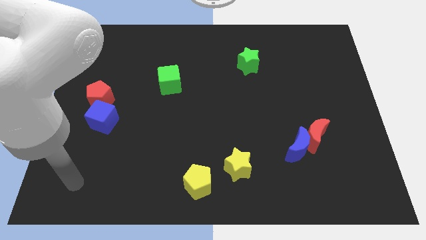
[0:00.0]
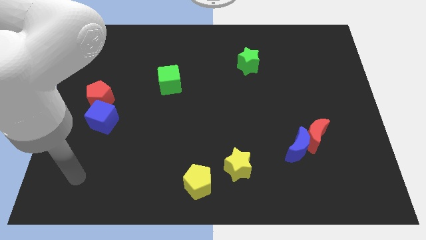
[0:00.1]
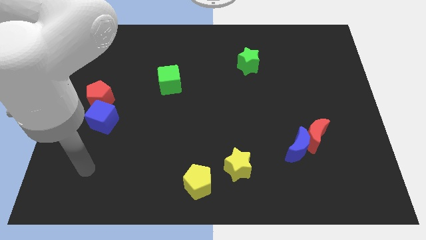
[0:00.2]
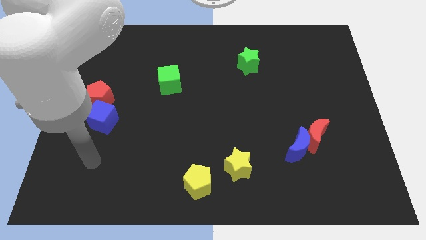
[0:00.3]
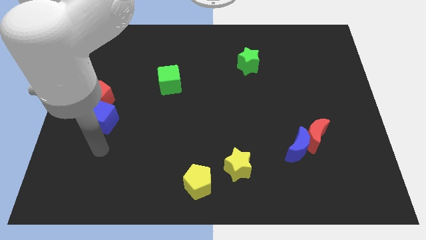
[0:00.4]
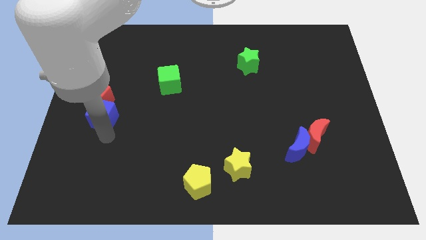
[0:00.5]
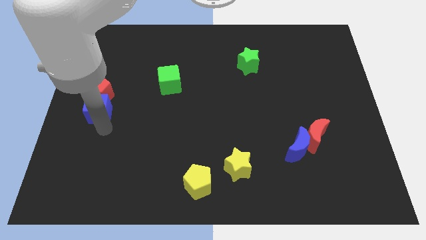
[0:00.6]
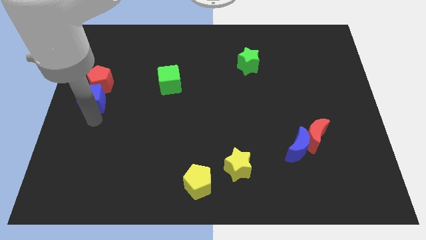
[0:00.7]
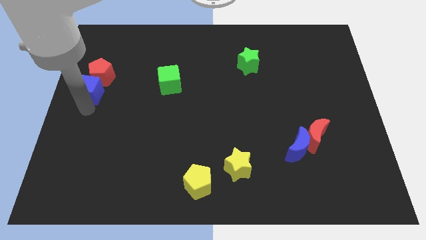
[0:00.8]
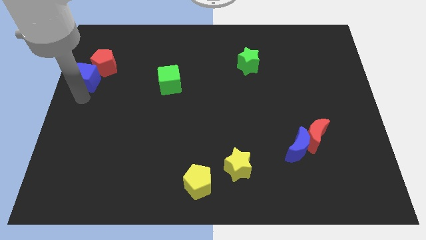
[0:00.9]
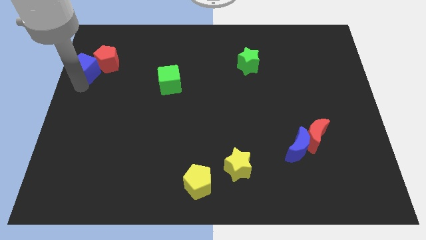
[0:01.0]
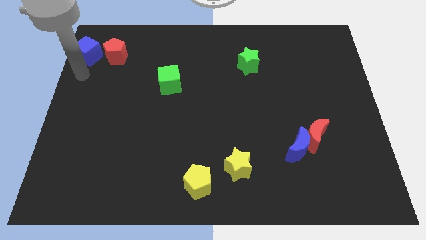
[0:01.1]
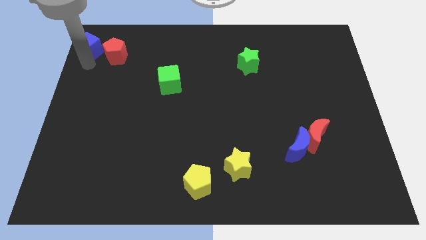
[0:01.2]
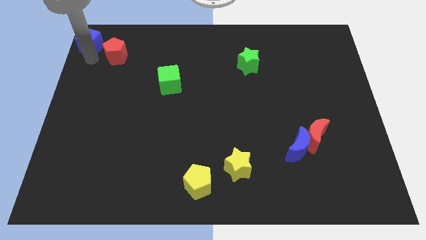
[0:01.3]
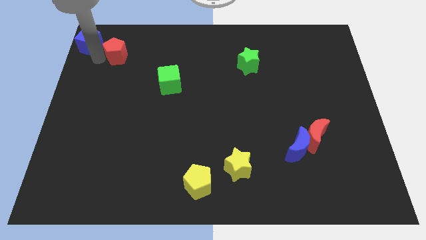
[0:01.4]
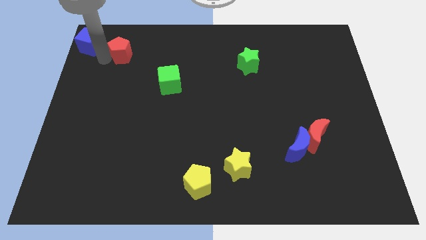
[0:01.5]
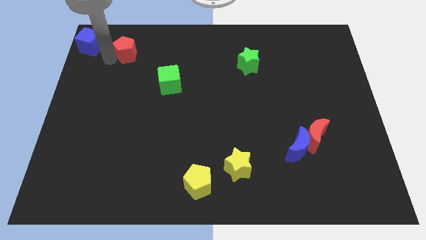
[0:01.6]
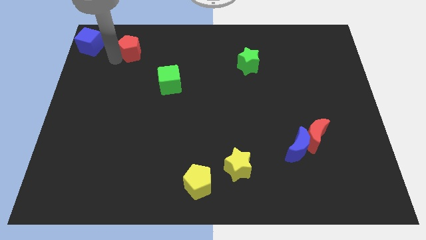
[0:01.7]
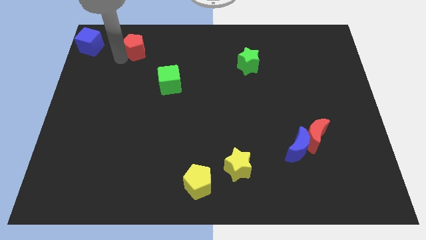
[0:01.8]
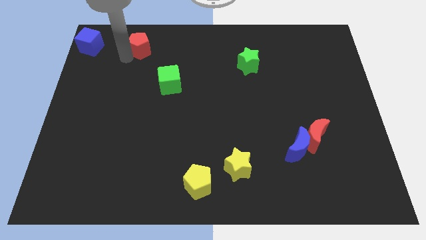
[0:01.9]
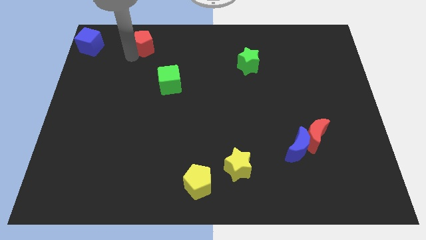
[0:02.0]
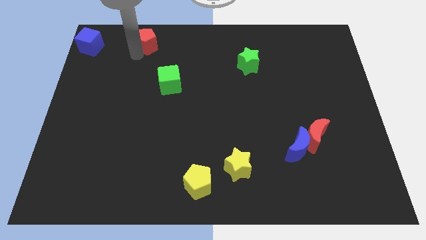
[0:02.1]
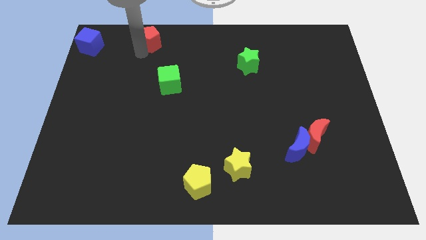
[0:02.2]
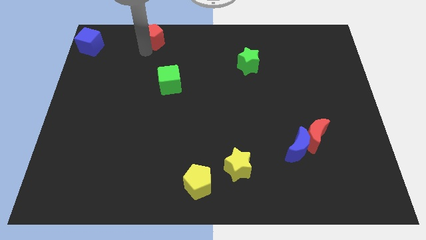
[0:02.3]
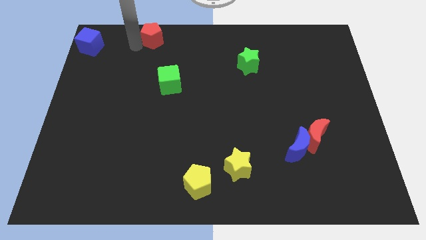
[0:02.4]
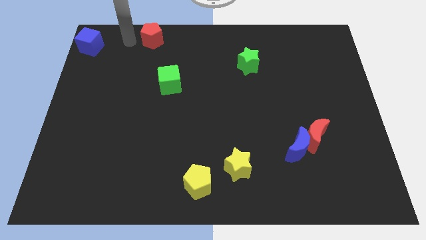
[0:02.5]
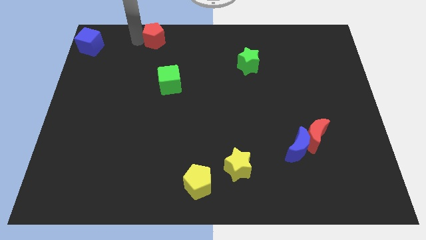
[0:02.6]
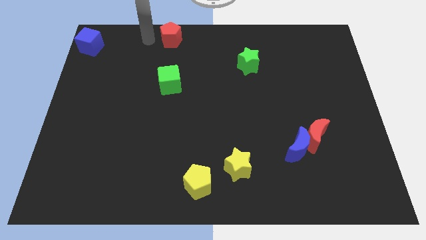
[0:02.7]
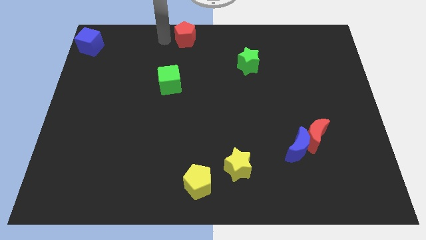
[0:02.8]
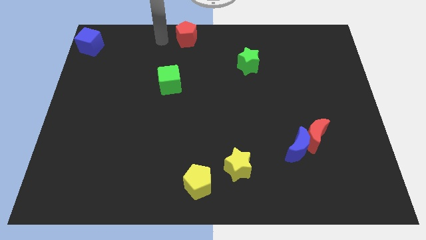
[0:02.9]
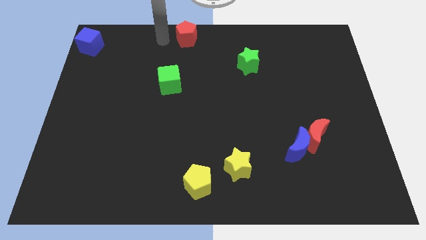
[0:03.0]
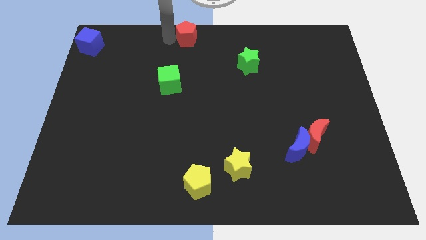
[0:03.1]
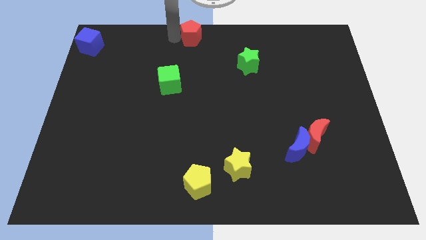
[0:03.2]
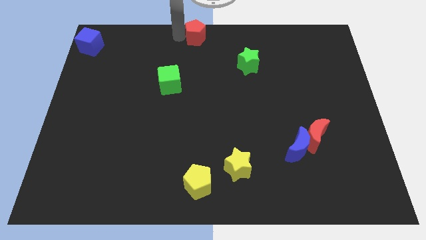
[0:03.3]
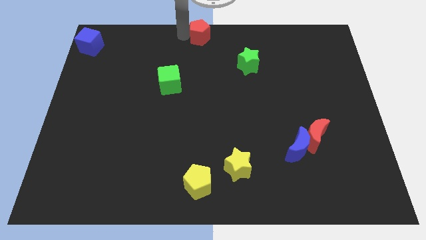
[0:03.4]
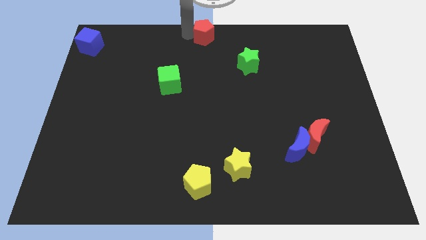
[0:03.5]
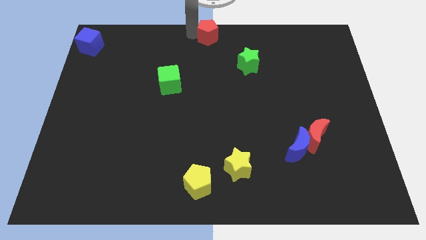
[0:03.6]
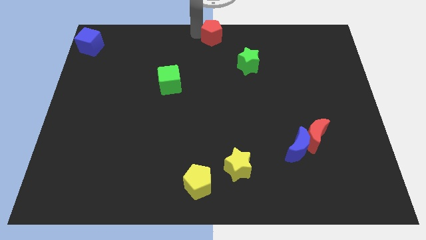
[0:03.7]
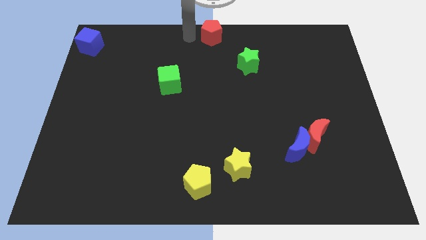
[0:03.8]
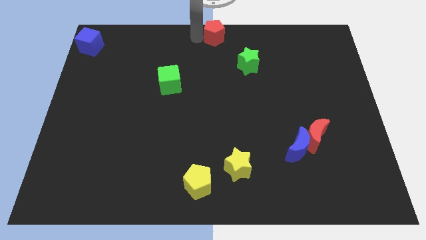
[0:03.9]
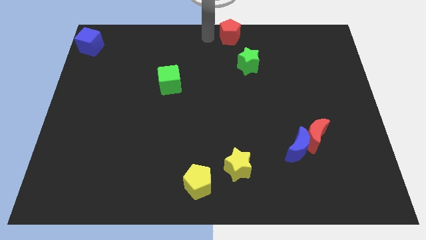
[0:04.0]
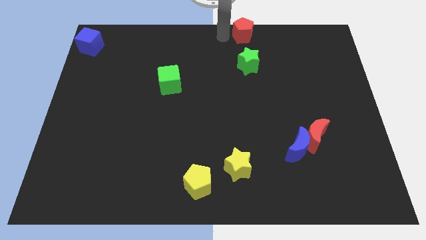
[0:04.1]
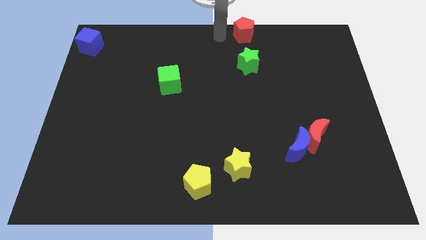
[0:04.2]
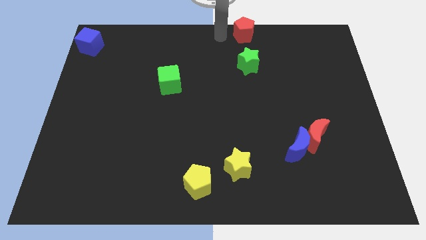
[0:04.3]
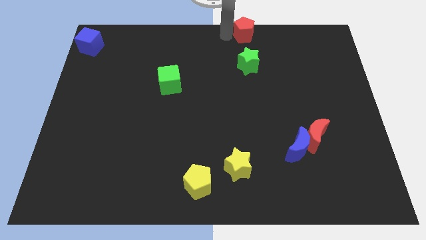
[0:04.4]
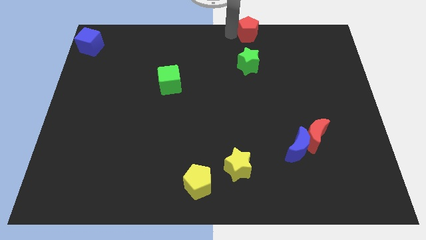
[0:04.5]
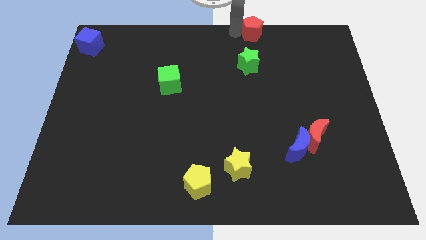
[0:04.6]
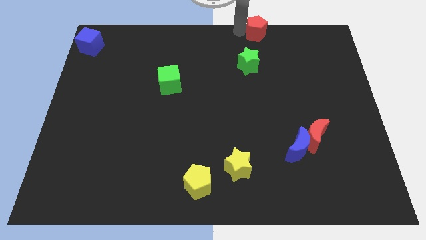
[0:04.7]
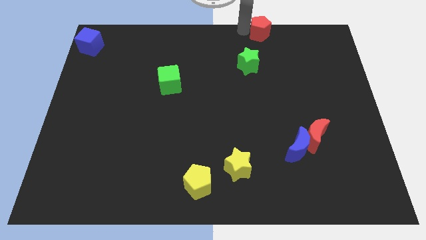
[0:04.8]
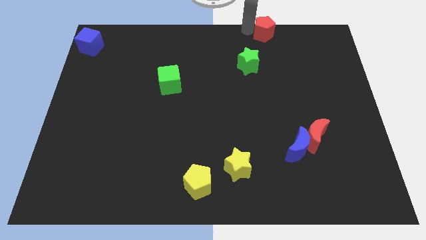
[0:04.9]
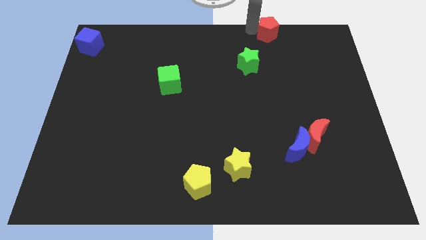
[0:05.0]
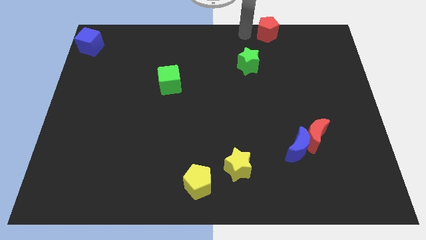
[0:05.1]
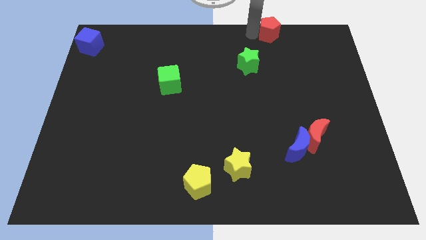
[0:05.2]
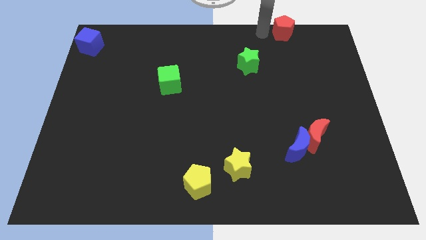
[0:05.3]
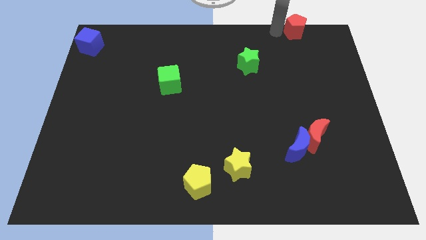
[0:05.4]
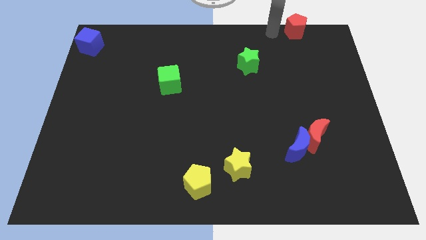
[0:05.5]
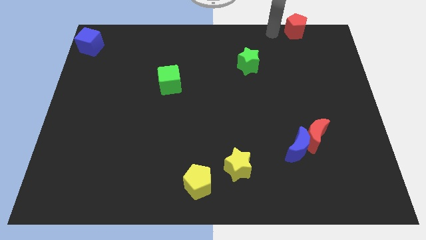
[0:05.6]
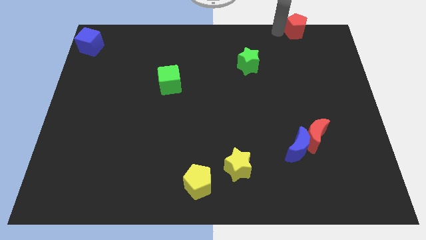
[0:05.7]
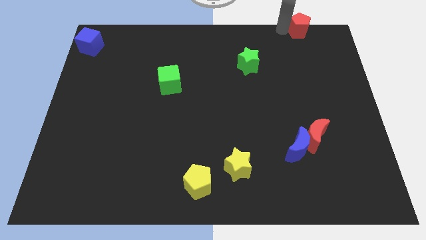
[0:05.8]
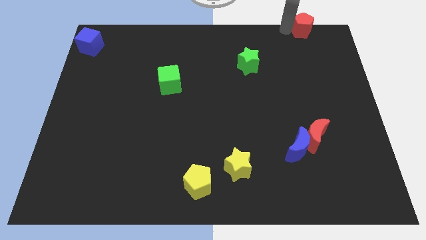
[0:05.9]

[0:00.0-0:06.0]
put the red pentagon to the upper right corner

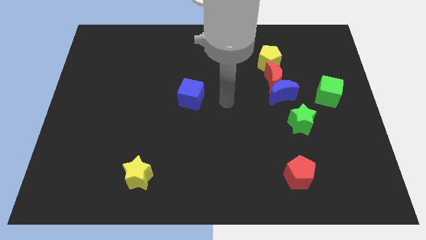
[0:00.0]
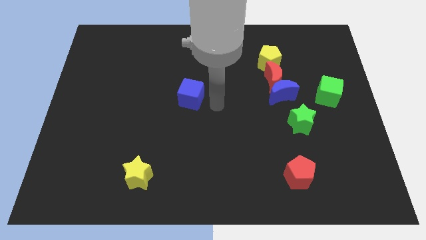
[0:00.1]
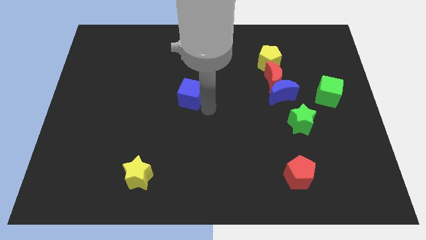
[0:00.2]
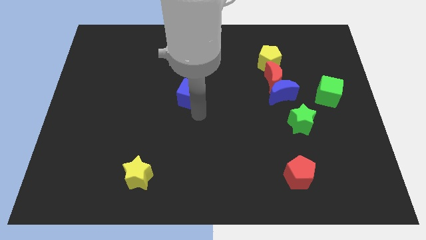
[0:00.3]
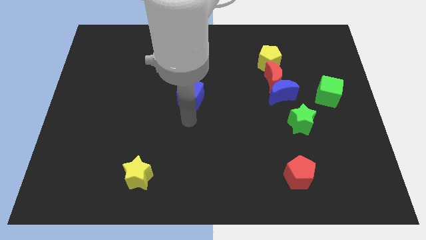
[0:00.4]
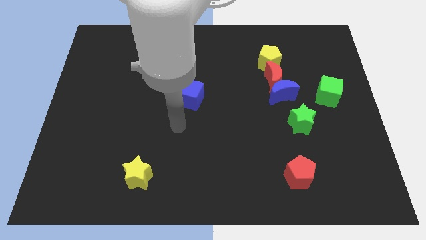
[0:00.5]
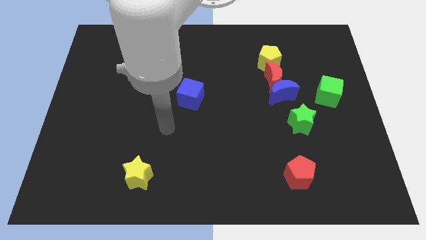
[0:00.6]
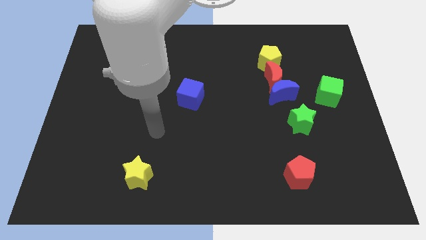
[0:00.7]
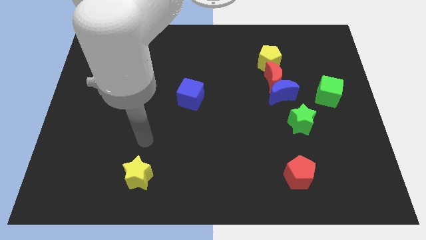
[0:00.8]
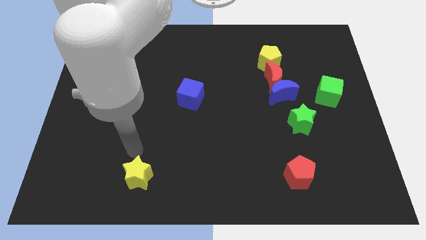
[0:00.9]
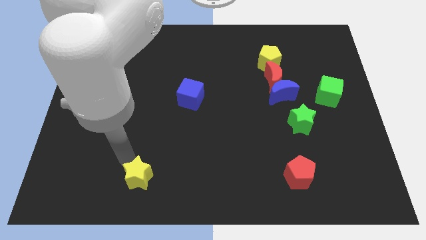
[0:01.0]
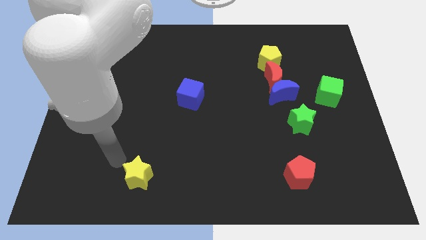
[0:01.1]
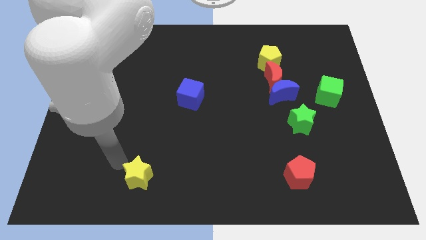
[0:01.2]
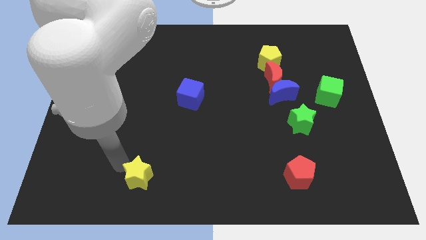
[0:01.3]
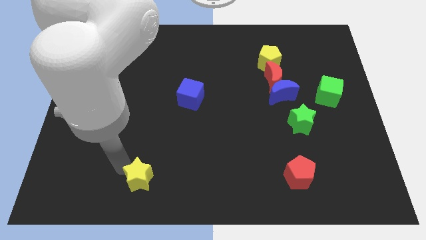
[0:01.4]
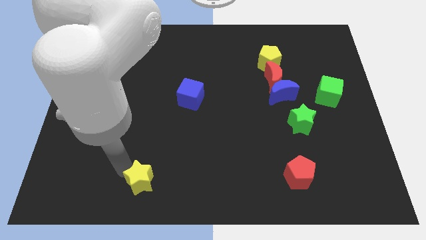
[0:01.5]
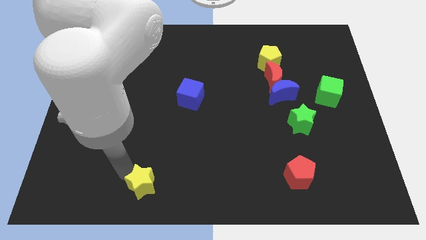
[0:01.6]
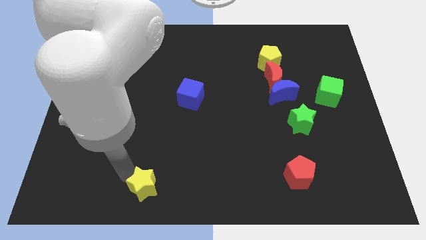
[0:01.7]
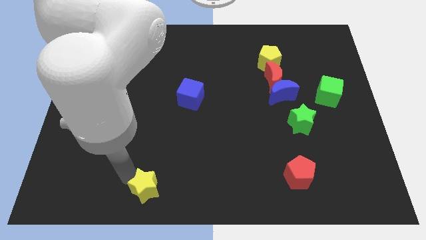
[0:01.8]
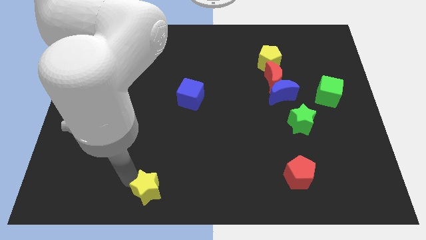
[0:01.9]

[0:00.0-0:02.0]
slide the yellow star to the bottom side
